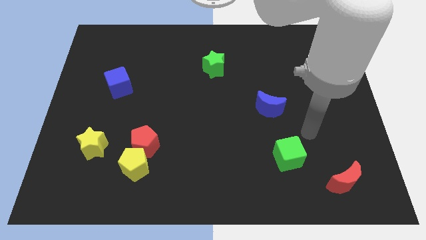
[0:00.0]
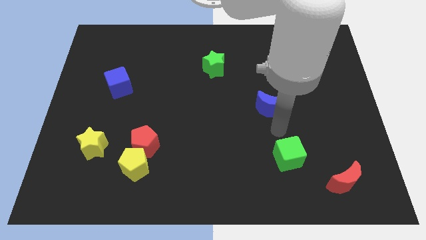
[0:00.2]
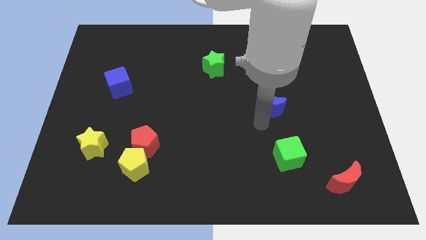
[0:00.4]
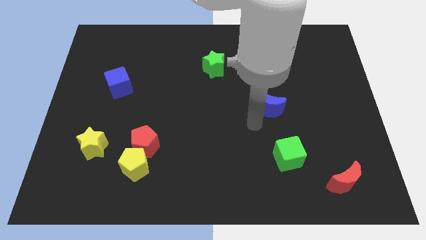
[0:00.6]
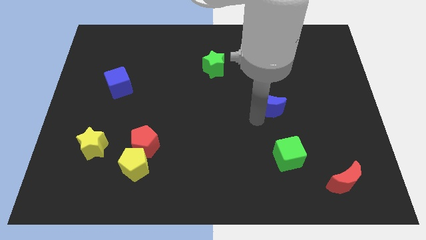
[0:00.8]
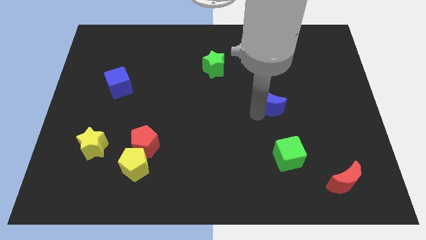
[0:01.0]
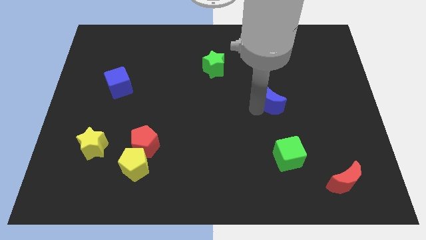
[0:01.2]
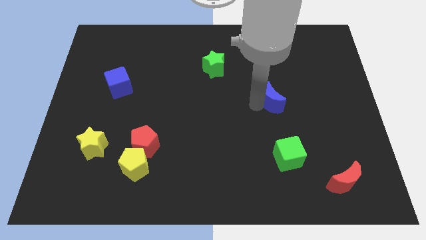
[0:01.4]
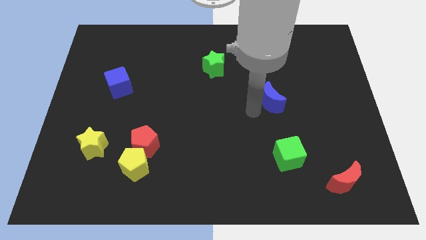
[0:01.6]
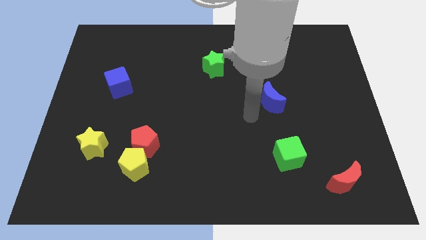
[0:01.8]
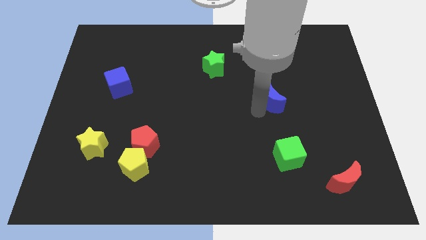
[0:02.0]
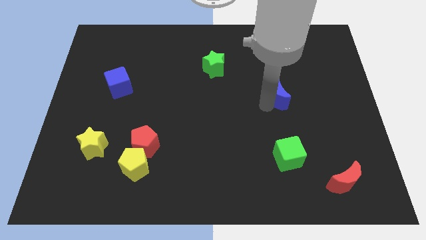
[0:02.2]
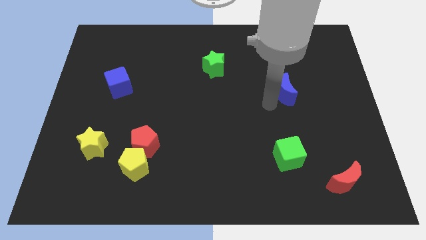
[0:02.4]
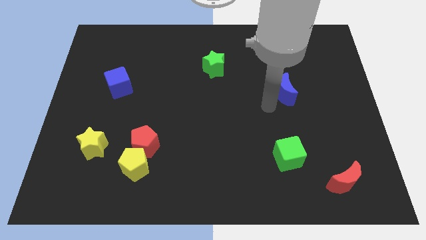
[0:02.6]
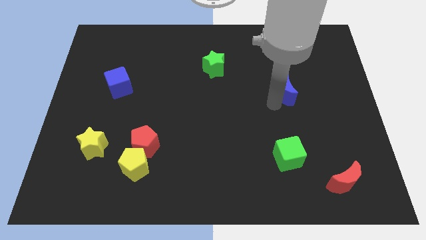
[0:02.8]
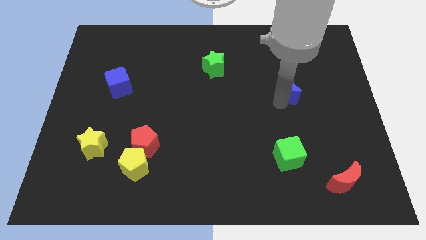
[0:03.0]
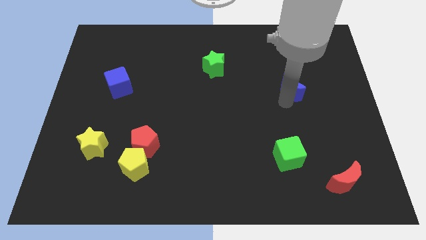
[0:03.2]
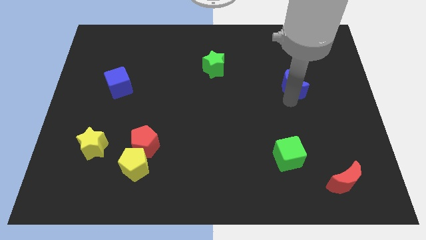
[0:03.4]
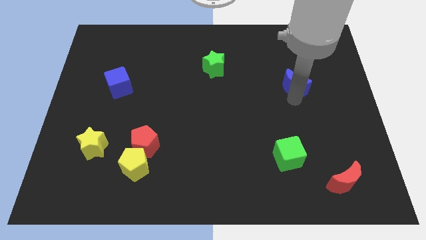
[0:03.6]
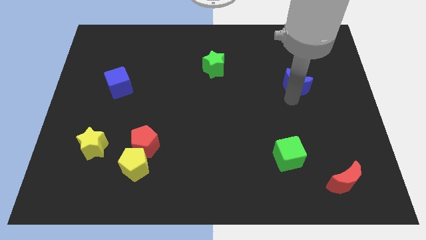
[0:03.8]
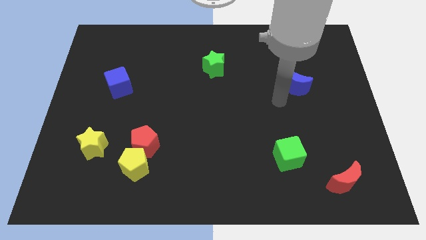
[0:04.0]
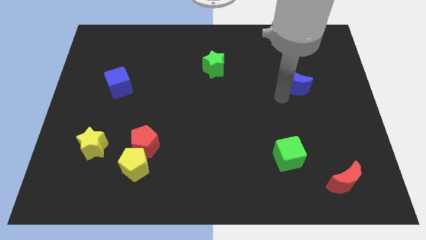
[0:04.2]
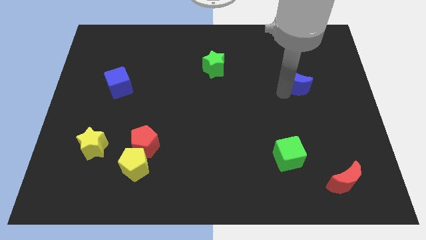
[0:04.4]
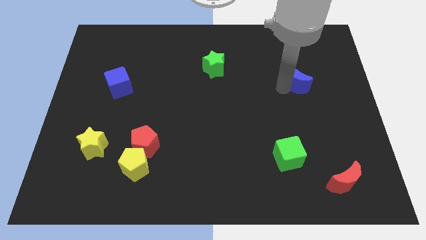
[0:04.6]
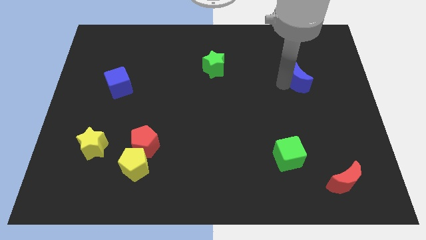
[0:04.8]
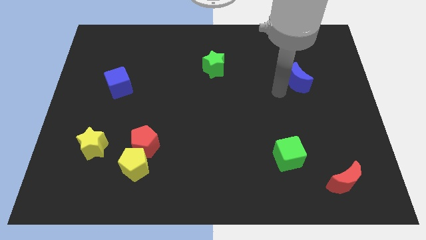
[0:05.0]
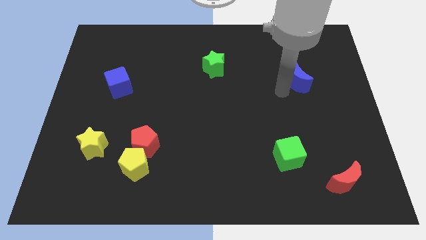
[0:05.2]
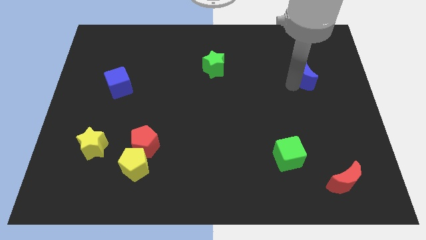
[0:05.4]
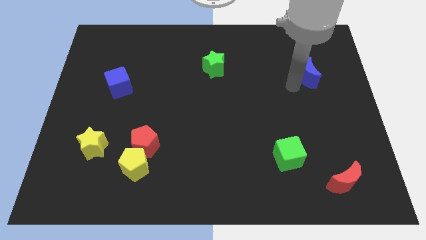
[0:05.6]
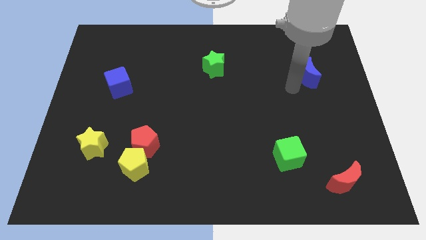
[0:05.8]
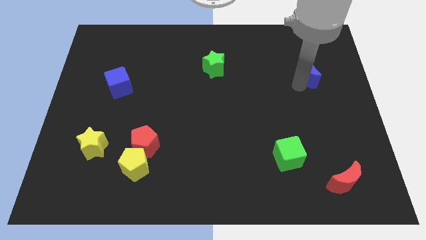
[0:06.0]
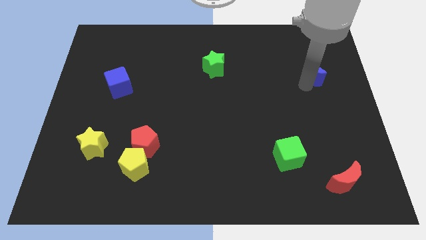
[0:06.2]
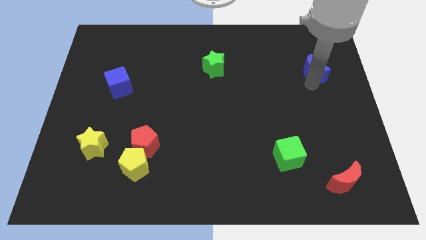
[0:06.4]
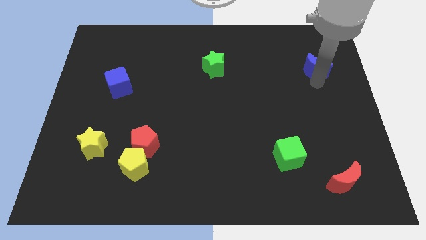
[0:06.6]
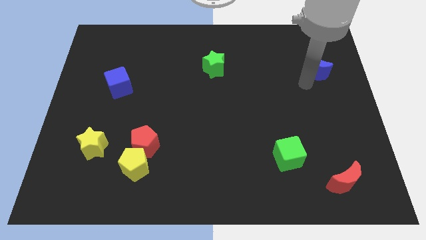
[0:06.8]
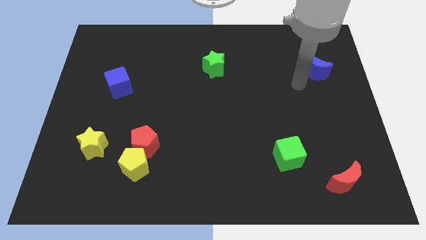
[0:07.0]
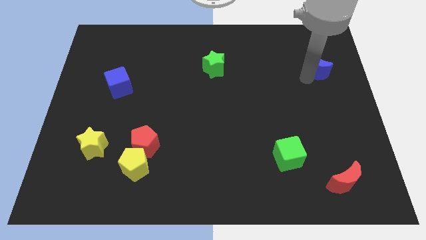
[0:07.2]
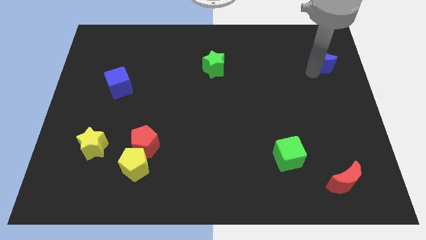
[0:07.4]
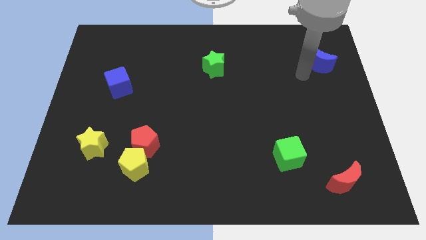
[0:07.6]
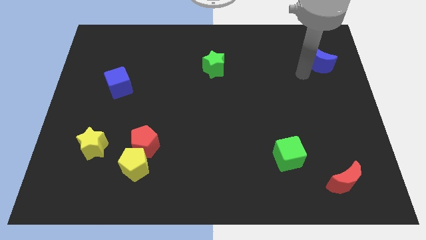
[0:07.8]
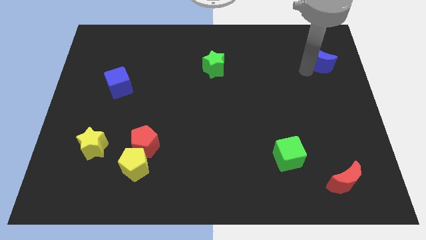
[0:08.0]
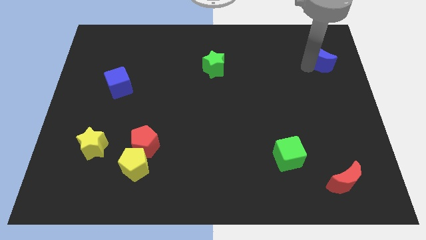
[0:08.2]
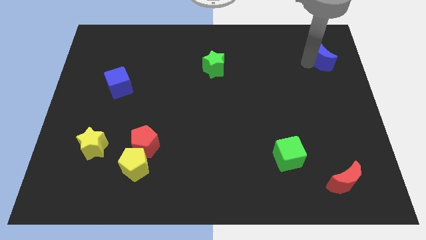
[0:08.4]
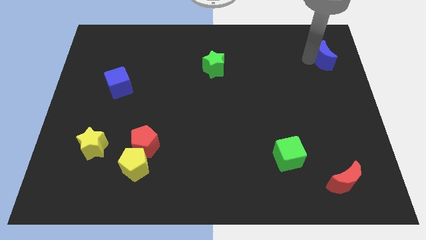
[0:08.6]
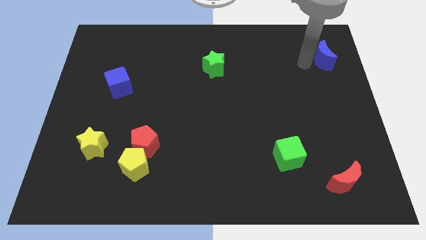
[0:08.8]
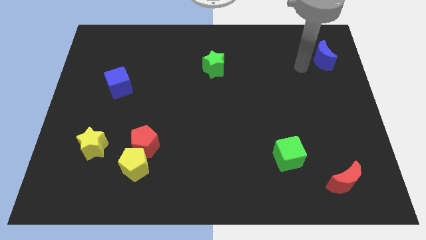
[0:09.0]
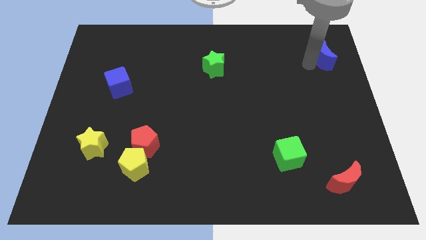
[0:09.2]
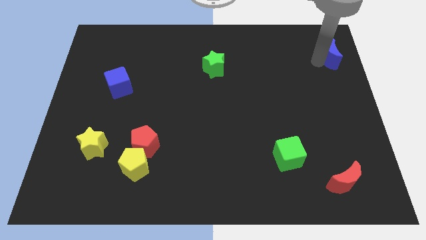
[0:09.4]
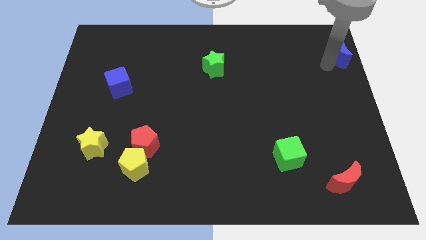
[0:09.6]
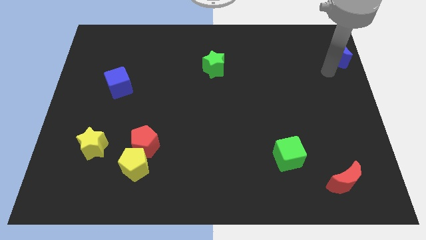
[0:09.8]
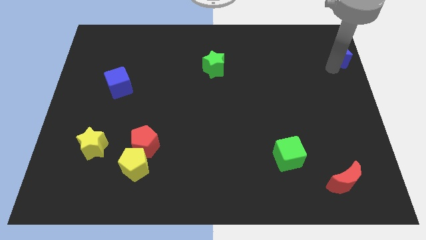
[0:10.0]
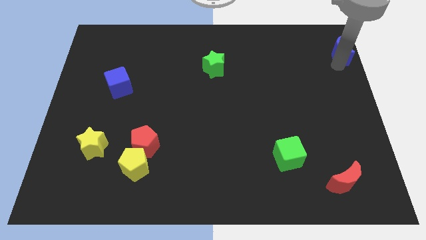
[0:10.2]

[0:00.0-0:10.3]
put the blue moon to the top right corner

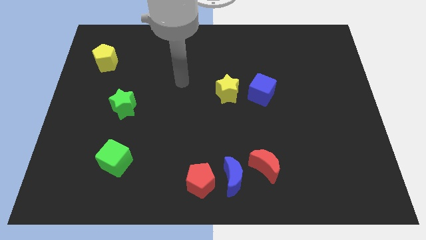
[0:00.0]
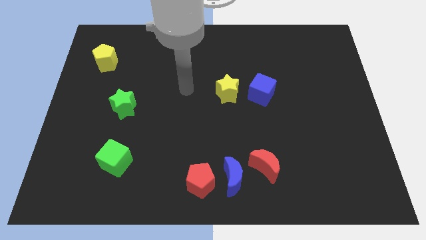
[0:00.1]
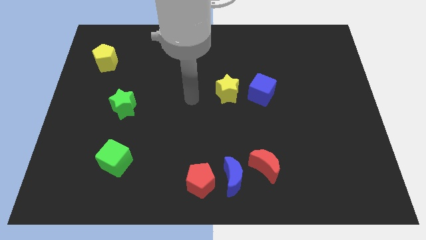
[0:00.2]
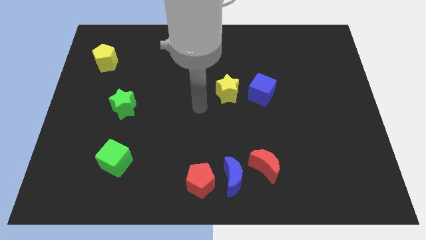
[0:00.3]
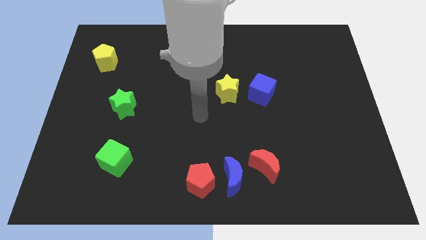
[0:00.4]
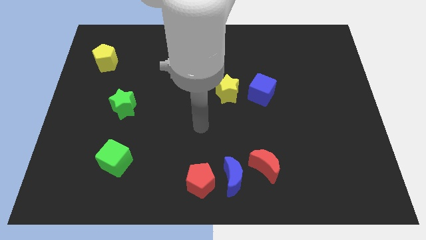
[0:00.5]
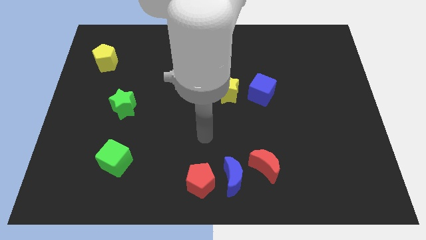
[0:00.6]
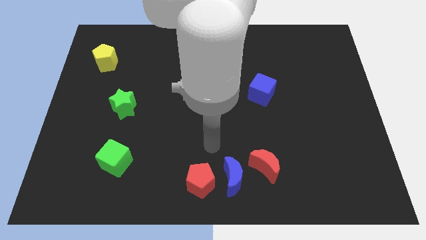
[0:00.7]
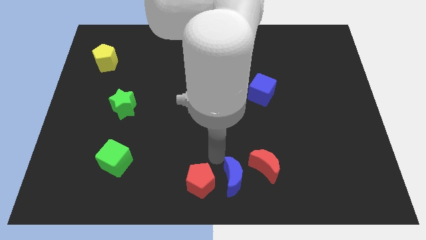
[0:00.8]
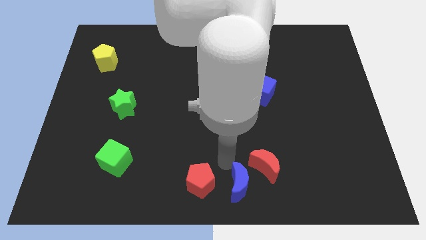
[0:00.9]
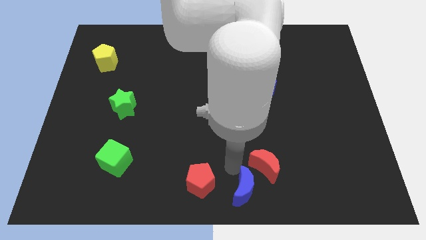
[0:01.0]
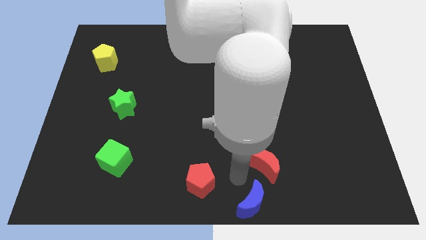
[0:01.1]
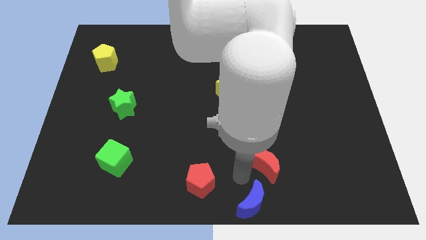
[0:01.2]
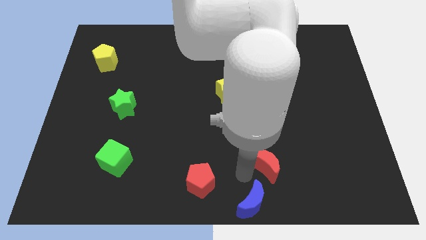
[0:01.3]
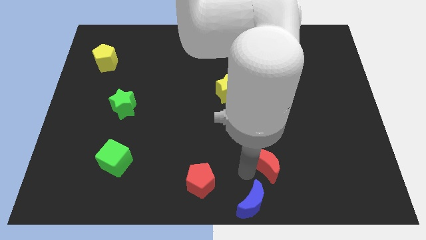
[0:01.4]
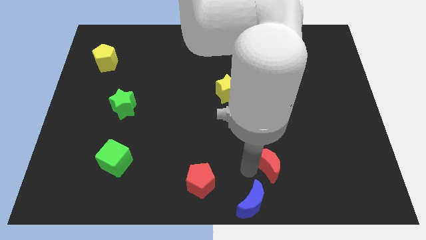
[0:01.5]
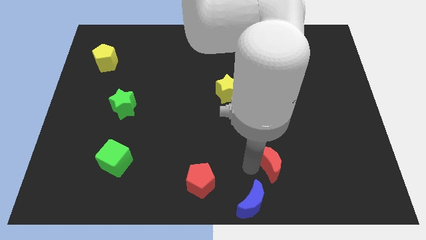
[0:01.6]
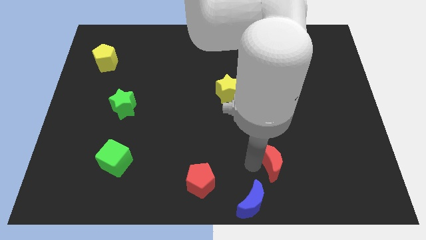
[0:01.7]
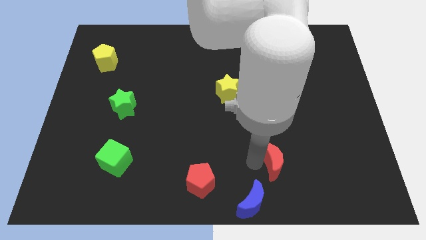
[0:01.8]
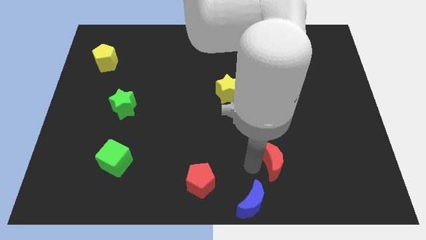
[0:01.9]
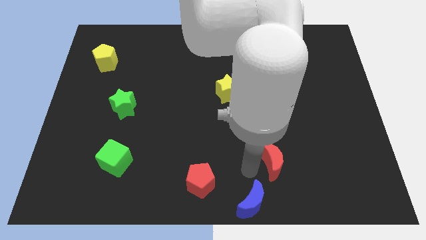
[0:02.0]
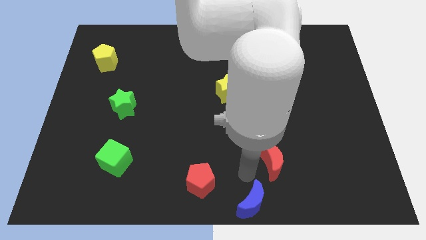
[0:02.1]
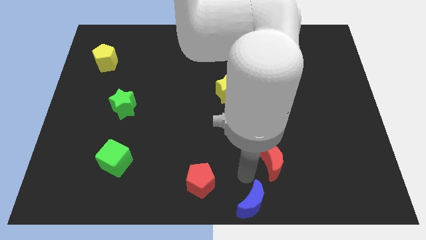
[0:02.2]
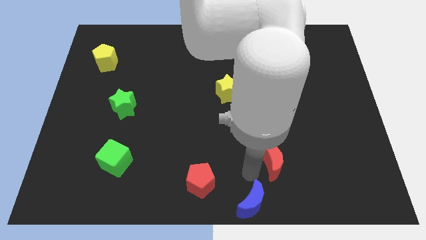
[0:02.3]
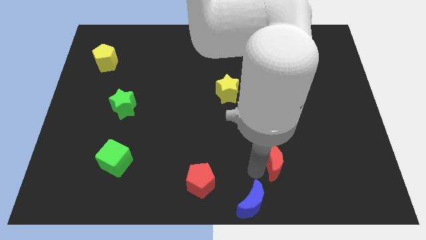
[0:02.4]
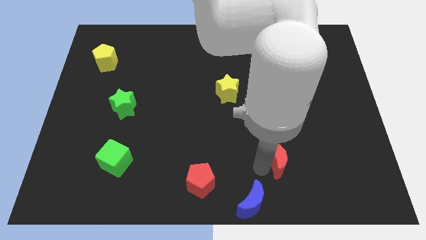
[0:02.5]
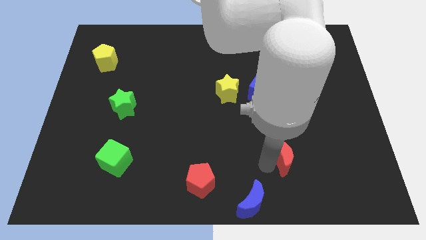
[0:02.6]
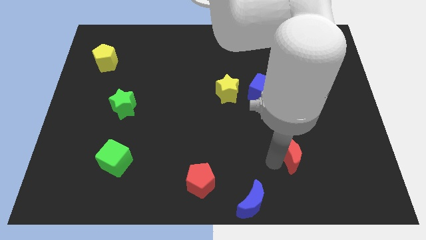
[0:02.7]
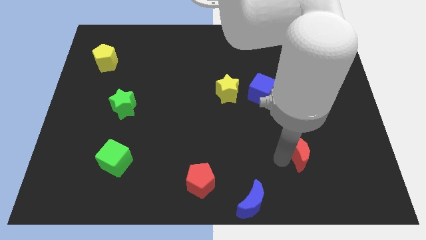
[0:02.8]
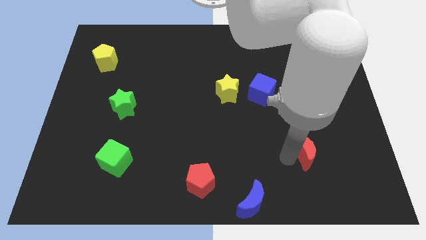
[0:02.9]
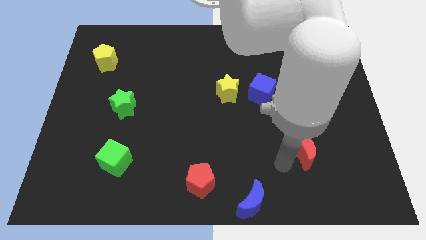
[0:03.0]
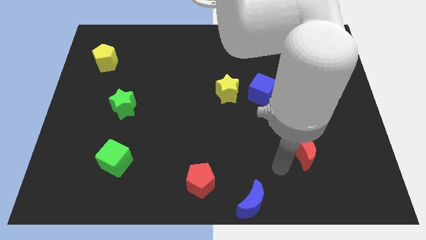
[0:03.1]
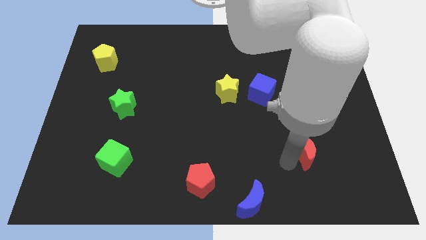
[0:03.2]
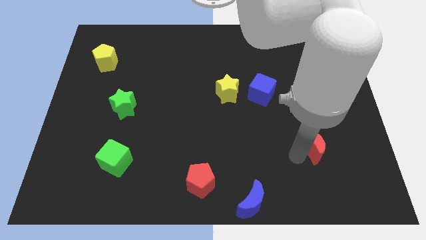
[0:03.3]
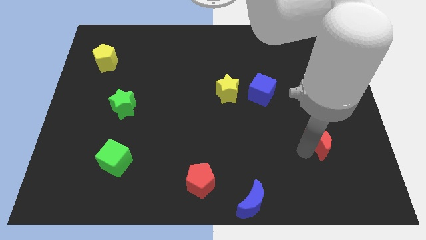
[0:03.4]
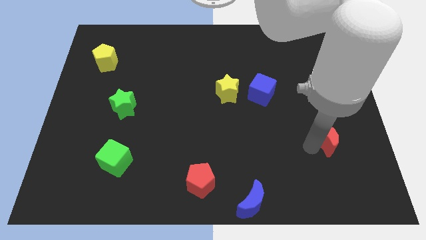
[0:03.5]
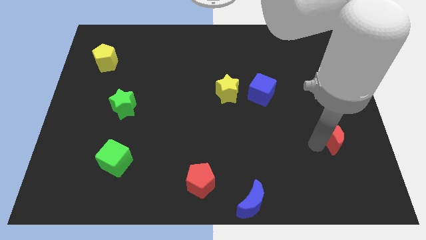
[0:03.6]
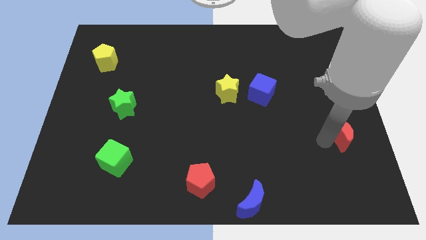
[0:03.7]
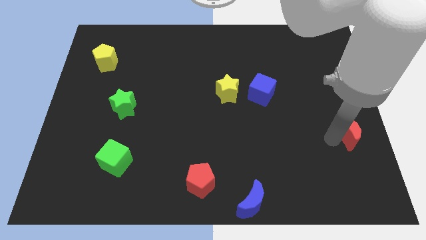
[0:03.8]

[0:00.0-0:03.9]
slide the red moon to the right side of the board
